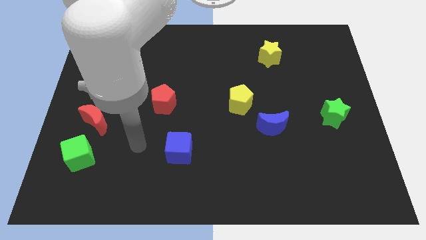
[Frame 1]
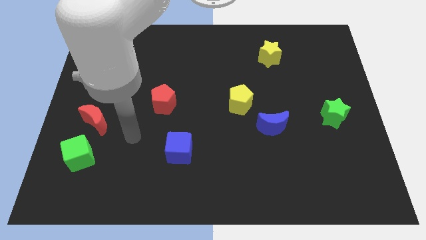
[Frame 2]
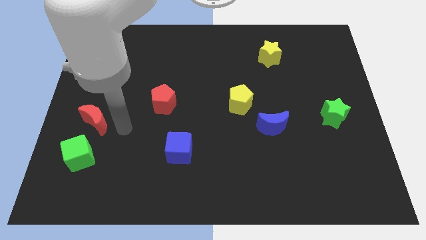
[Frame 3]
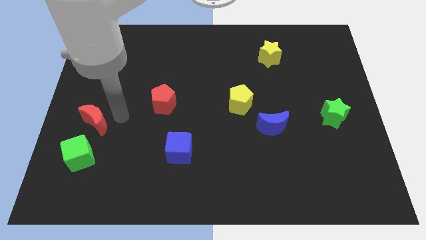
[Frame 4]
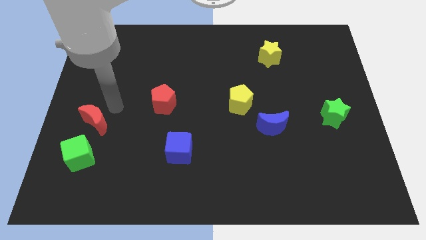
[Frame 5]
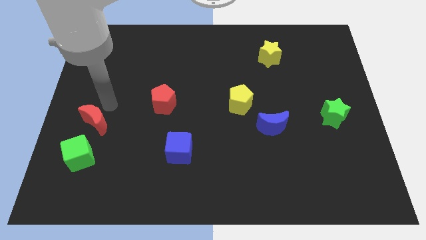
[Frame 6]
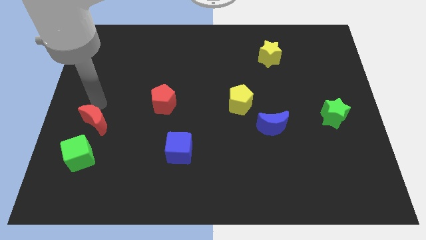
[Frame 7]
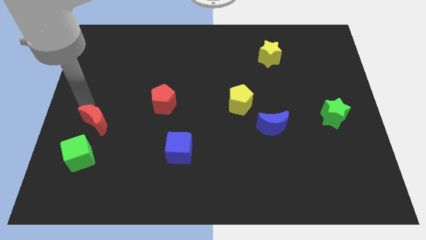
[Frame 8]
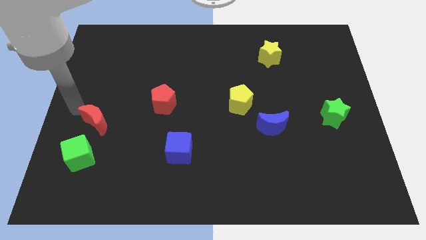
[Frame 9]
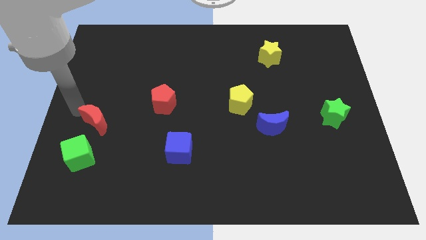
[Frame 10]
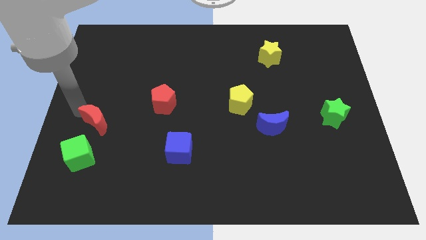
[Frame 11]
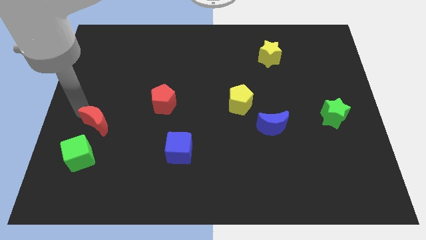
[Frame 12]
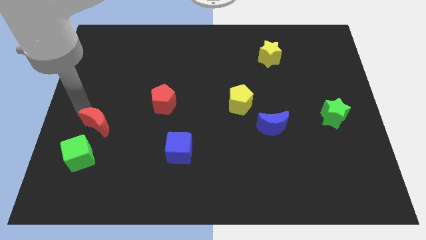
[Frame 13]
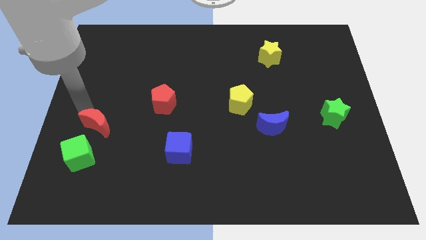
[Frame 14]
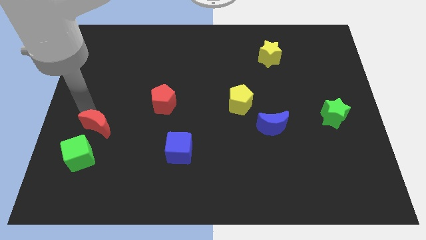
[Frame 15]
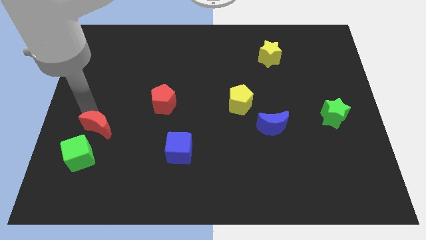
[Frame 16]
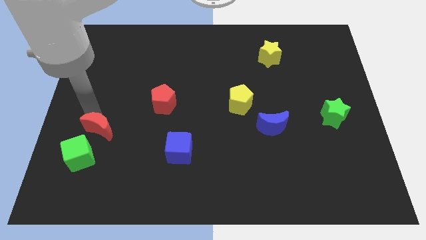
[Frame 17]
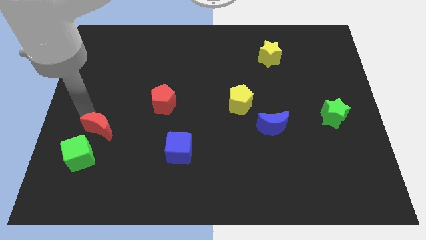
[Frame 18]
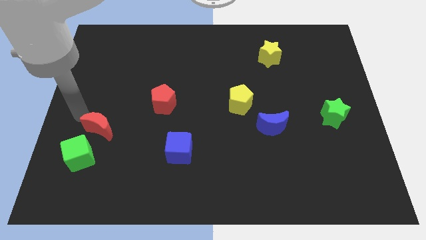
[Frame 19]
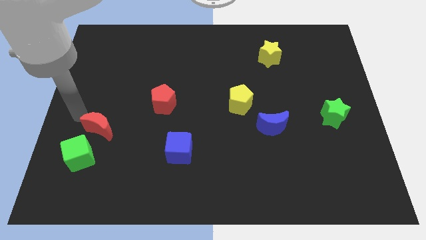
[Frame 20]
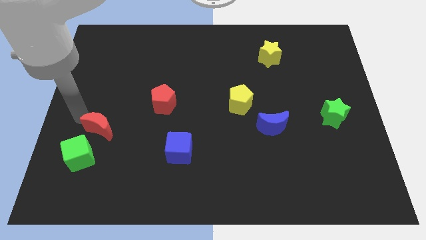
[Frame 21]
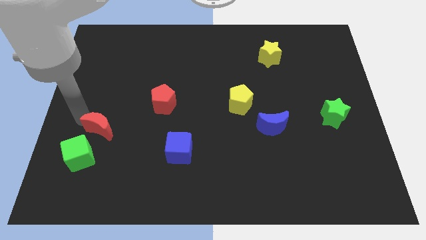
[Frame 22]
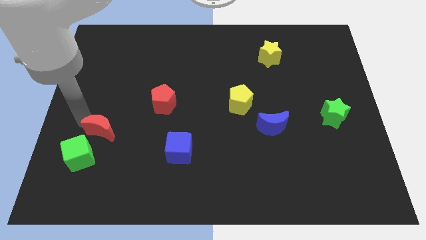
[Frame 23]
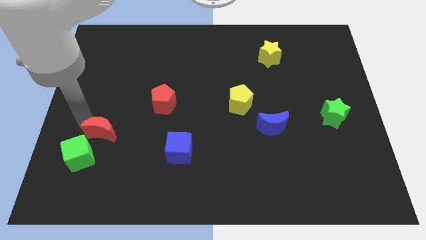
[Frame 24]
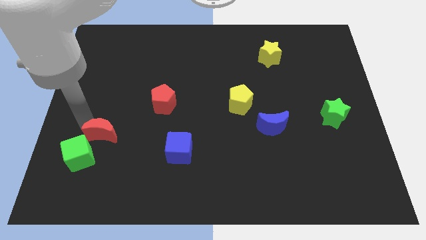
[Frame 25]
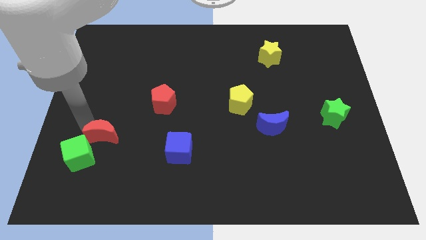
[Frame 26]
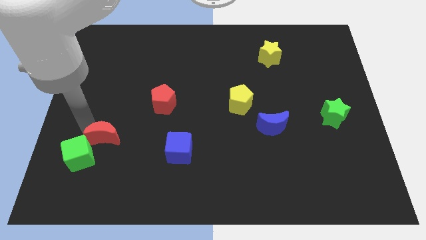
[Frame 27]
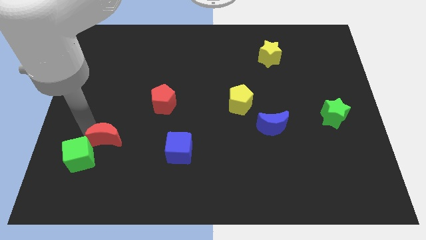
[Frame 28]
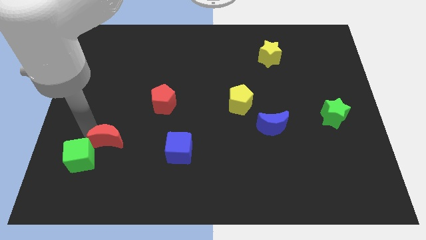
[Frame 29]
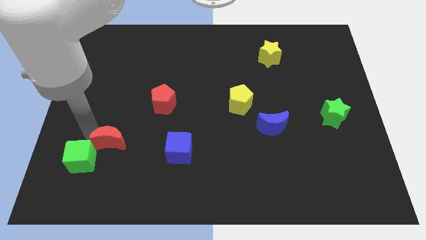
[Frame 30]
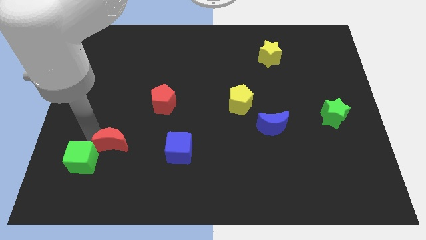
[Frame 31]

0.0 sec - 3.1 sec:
slightly push the red moon downwards and to the right

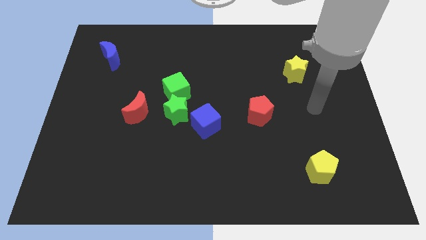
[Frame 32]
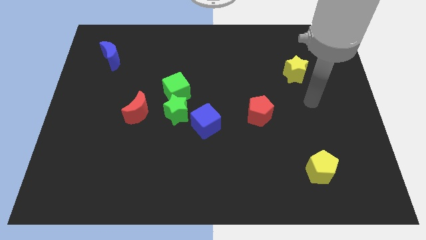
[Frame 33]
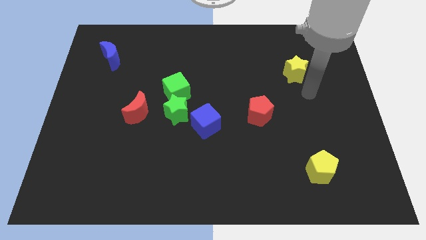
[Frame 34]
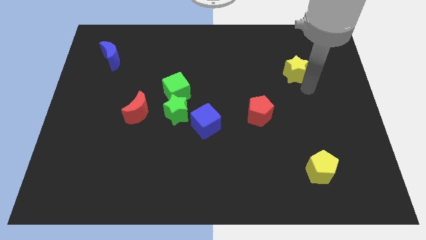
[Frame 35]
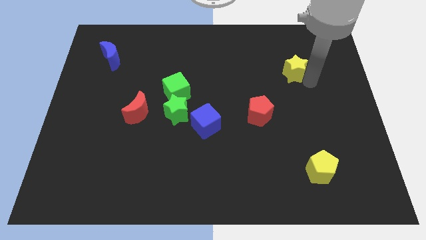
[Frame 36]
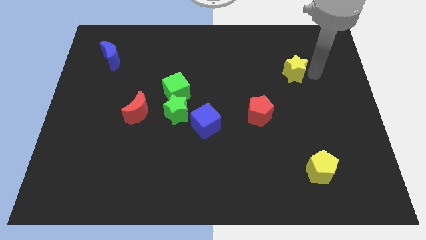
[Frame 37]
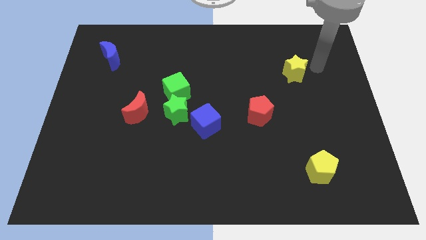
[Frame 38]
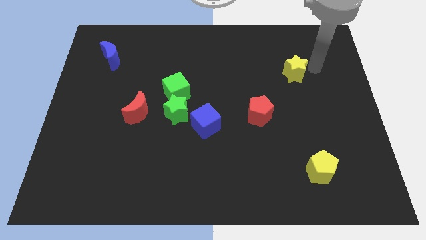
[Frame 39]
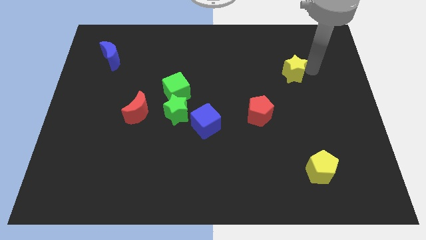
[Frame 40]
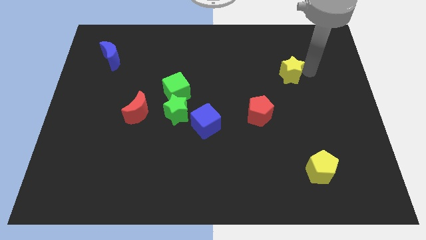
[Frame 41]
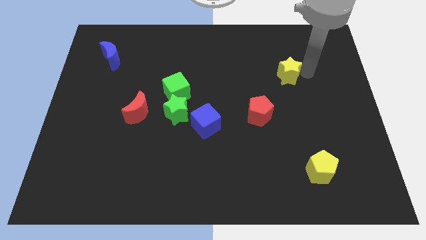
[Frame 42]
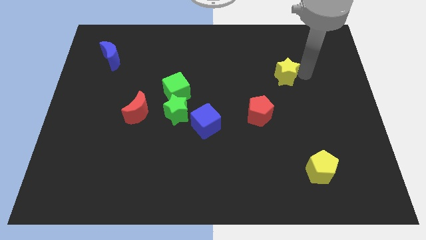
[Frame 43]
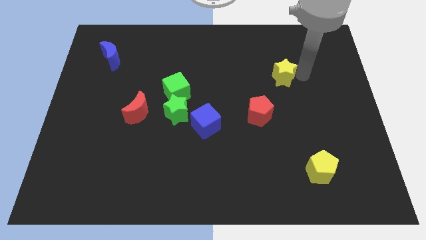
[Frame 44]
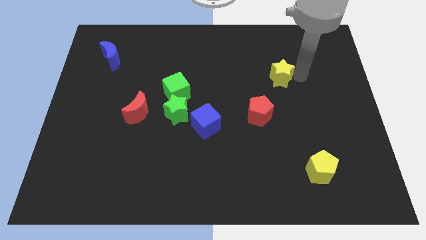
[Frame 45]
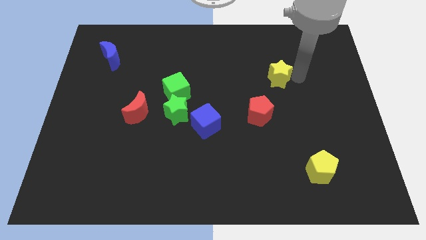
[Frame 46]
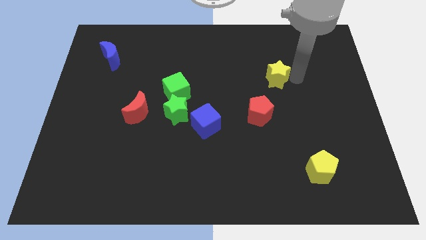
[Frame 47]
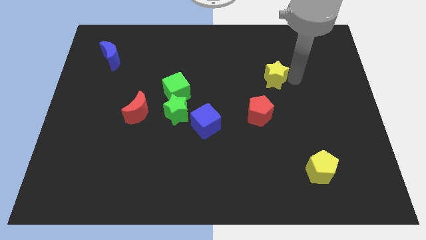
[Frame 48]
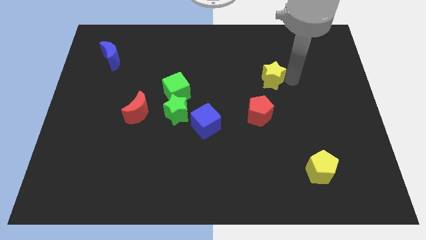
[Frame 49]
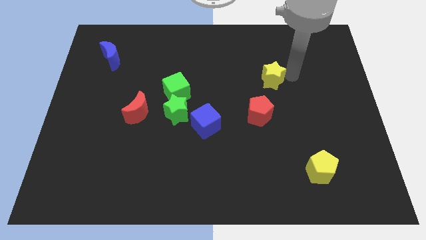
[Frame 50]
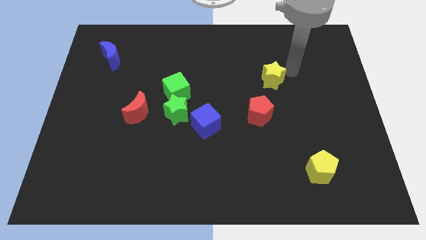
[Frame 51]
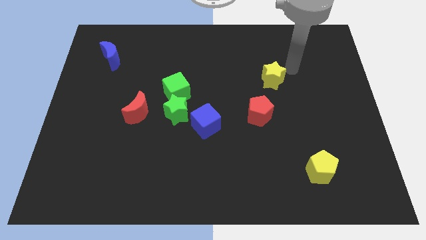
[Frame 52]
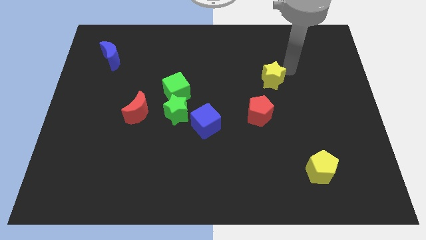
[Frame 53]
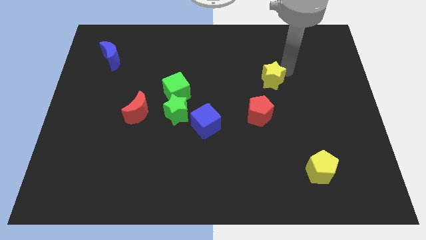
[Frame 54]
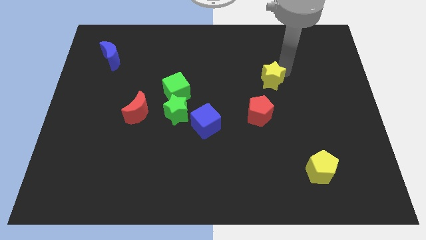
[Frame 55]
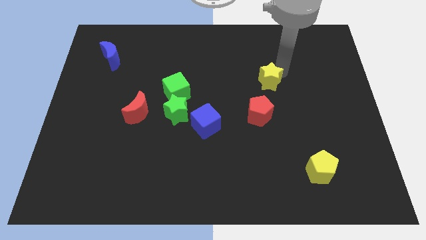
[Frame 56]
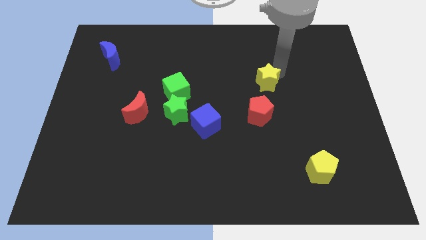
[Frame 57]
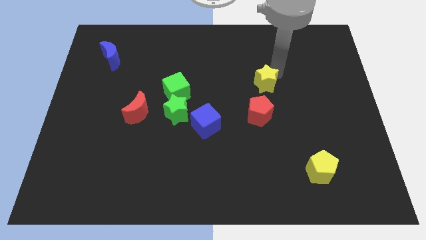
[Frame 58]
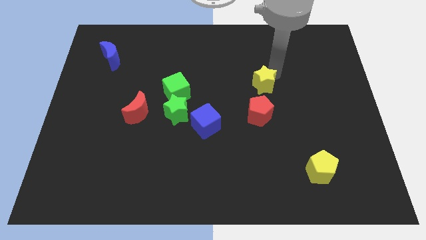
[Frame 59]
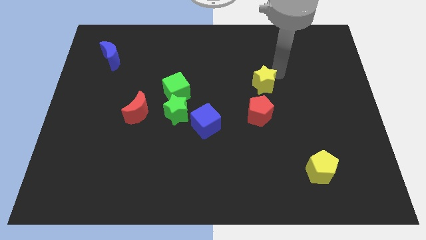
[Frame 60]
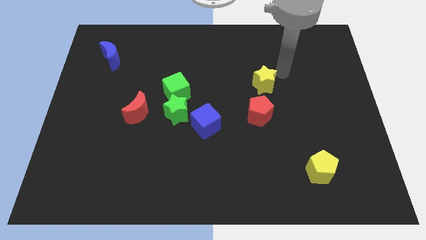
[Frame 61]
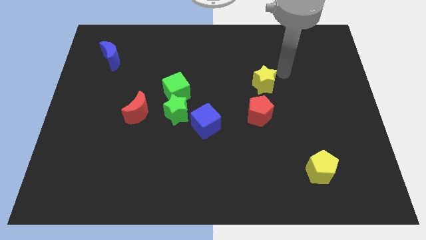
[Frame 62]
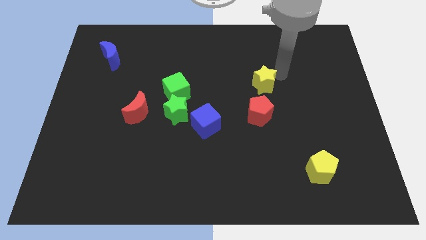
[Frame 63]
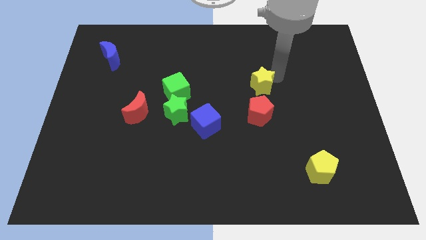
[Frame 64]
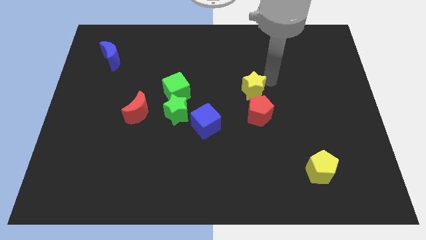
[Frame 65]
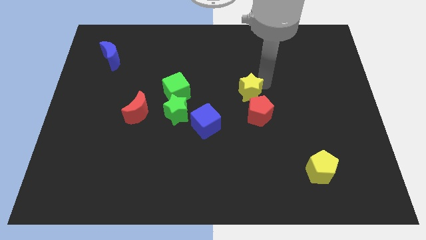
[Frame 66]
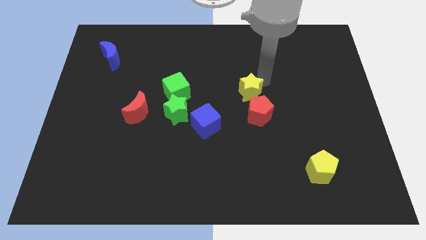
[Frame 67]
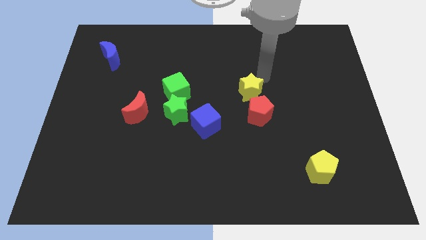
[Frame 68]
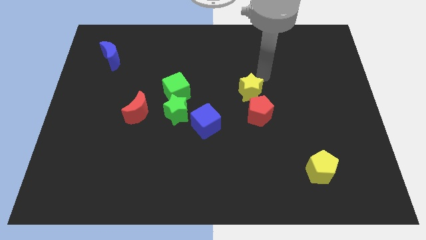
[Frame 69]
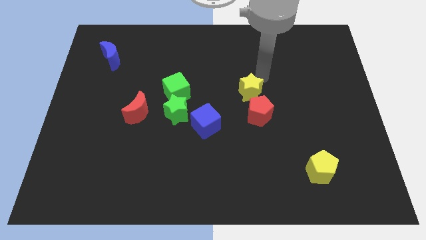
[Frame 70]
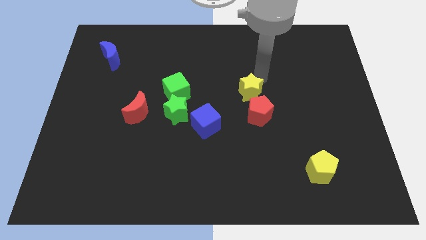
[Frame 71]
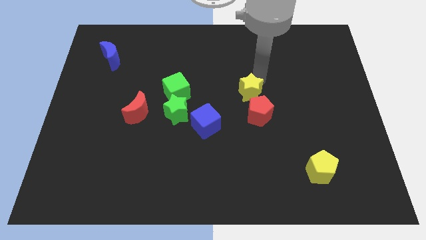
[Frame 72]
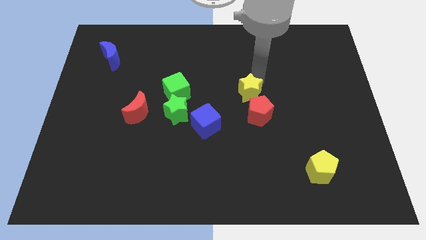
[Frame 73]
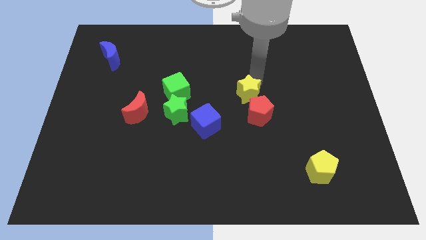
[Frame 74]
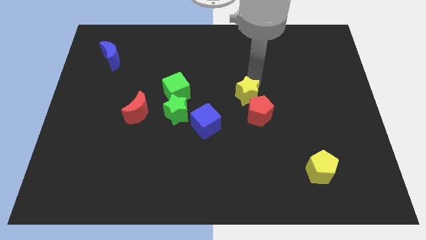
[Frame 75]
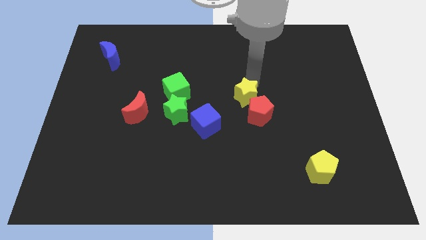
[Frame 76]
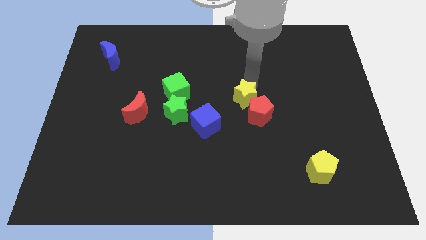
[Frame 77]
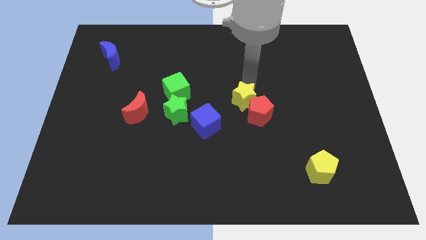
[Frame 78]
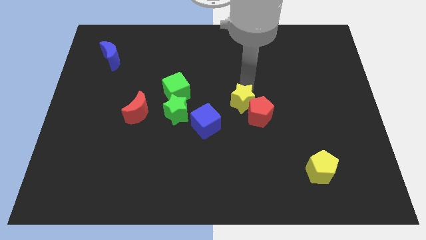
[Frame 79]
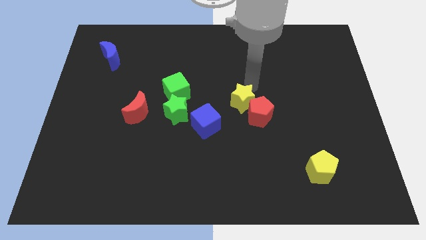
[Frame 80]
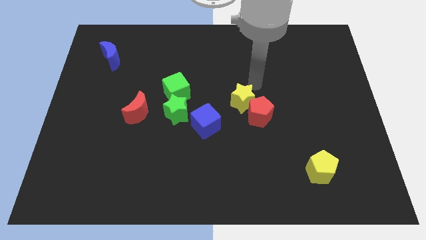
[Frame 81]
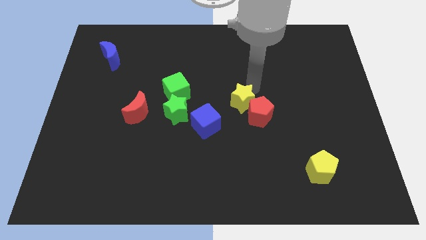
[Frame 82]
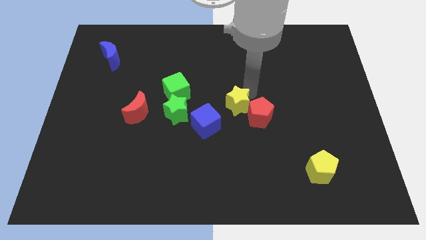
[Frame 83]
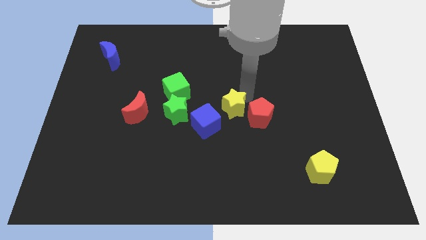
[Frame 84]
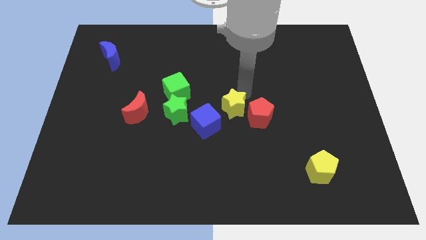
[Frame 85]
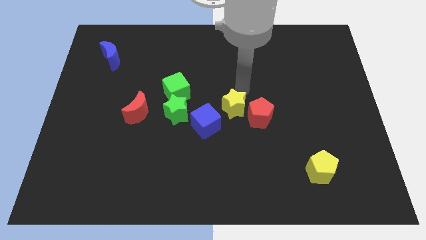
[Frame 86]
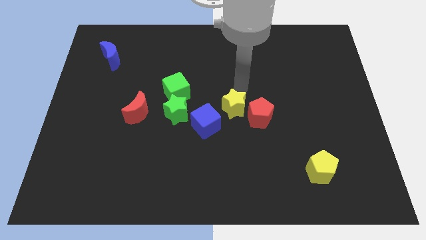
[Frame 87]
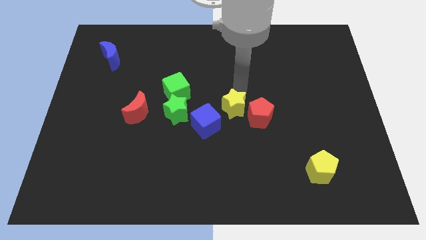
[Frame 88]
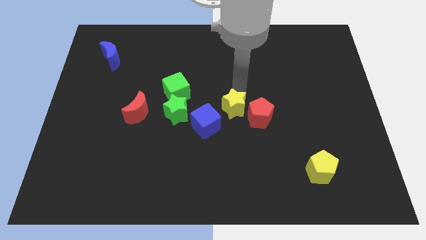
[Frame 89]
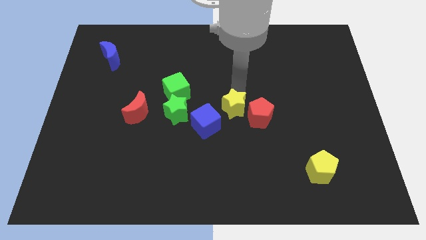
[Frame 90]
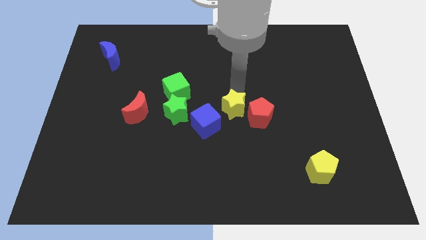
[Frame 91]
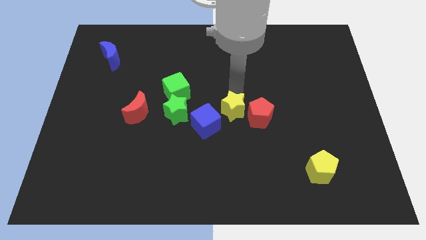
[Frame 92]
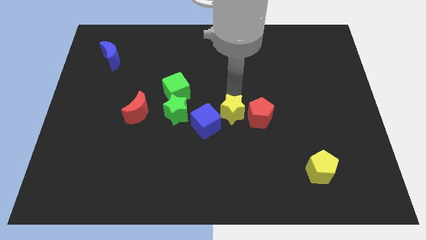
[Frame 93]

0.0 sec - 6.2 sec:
slide the yellow star downwards and then to the left
